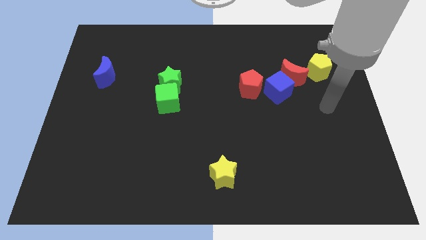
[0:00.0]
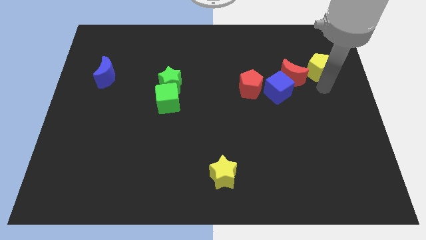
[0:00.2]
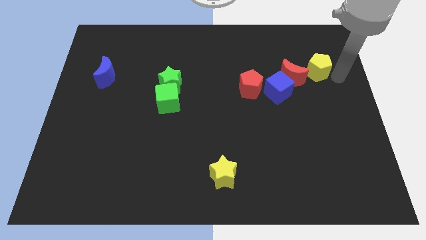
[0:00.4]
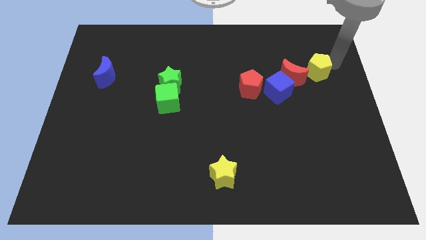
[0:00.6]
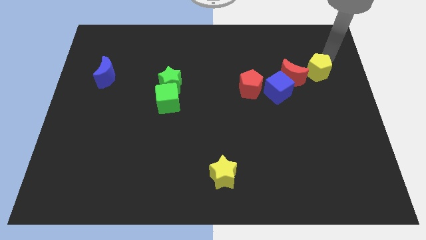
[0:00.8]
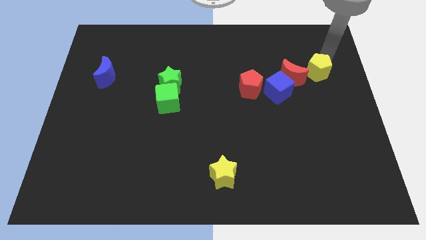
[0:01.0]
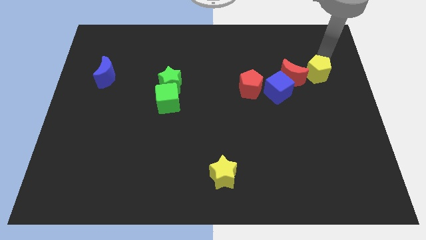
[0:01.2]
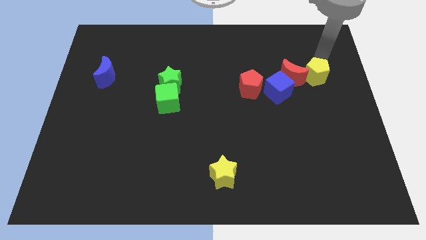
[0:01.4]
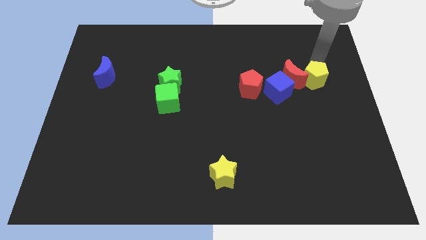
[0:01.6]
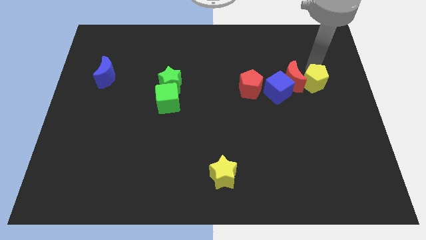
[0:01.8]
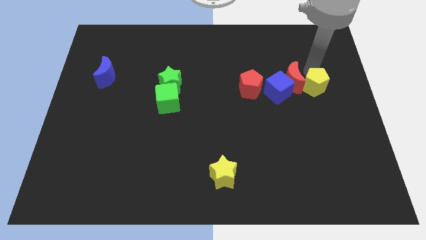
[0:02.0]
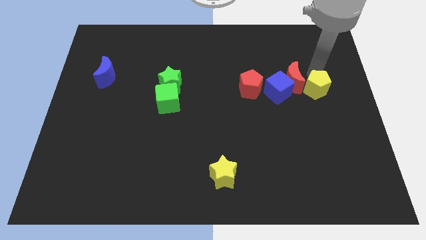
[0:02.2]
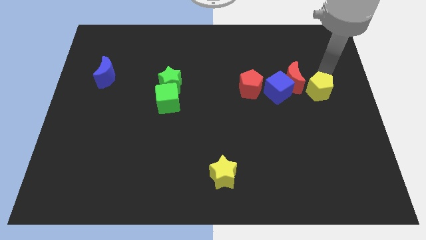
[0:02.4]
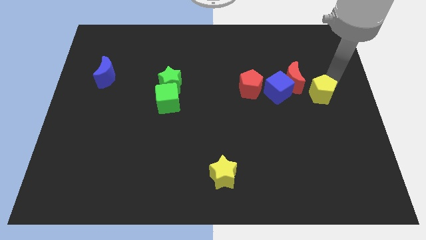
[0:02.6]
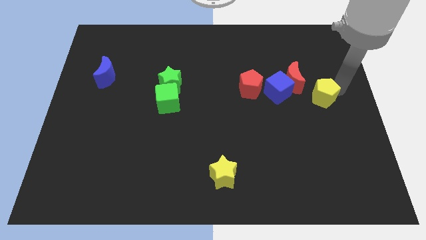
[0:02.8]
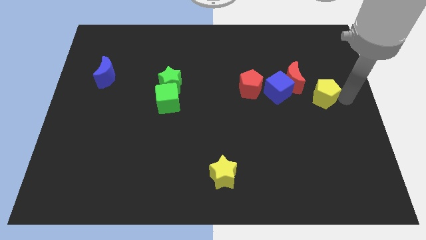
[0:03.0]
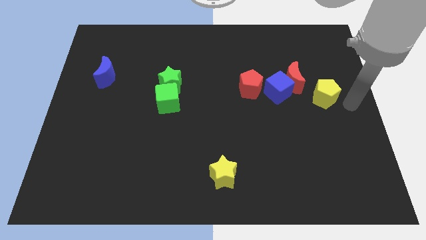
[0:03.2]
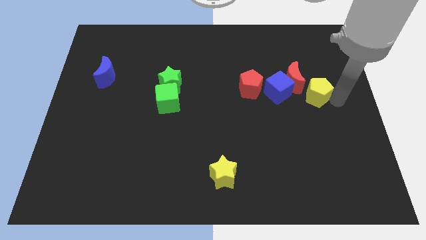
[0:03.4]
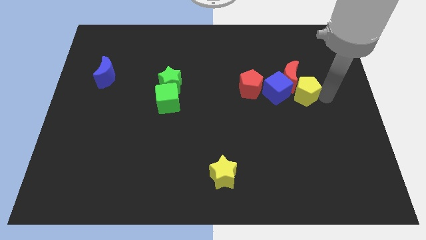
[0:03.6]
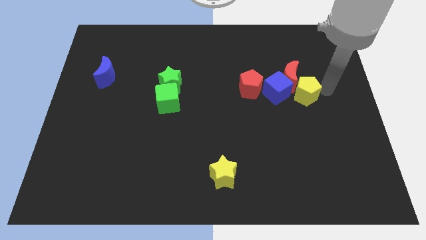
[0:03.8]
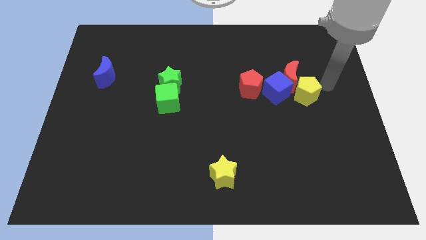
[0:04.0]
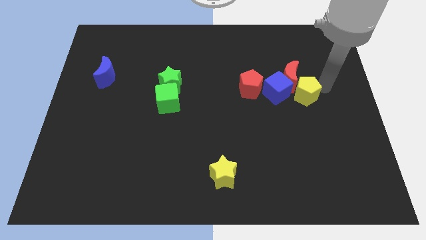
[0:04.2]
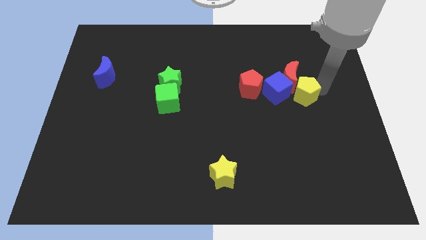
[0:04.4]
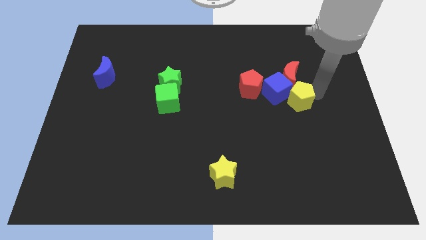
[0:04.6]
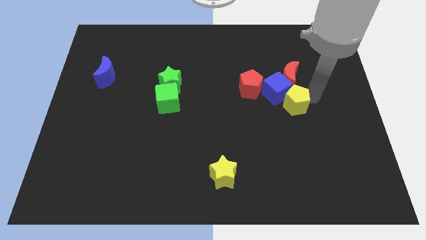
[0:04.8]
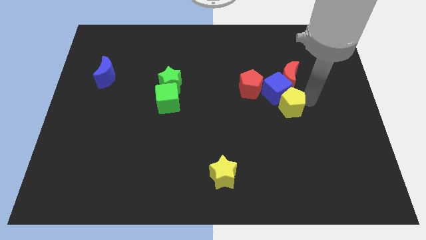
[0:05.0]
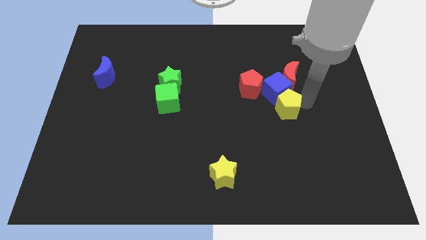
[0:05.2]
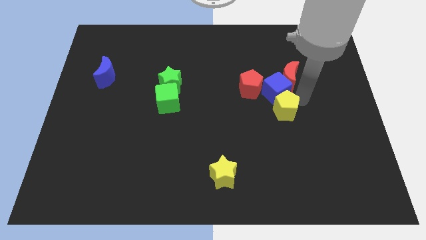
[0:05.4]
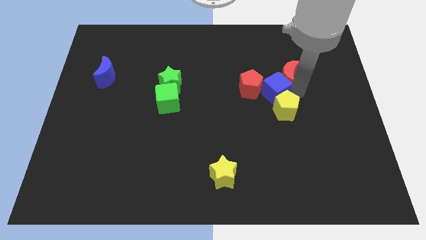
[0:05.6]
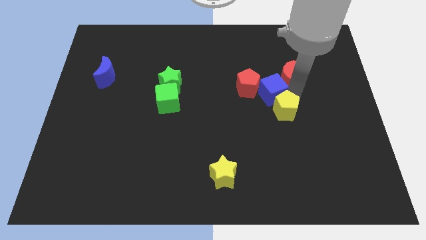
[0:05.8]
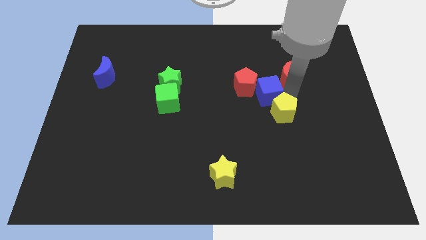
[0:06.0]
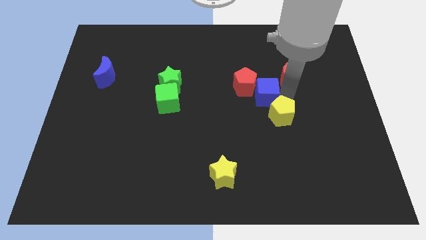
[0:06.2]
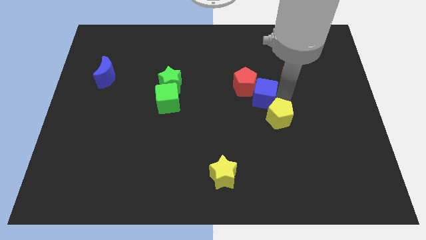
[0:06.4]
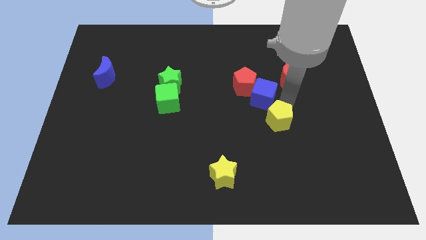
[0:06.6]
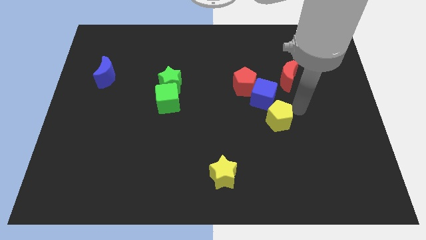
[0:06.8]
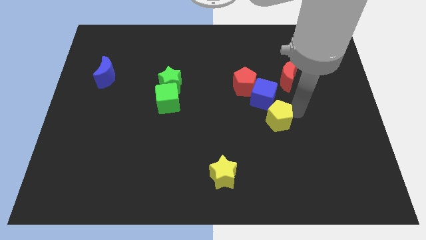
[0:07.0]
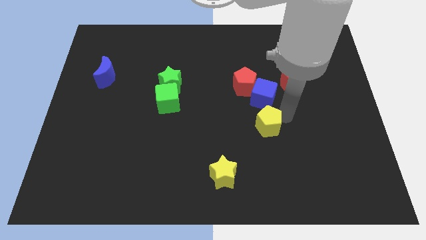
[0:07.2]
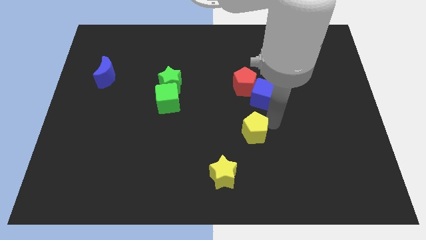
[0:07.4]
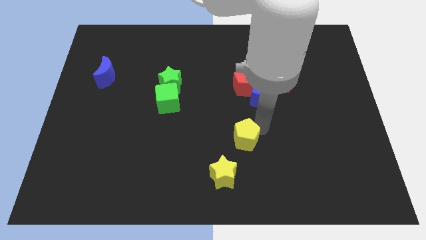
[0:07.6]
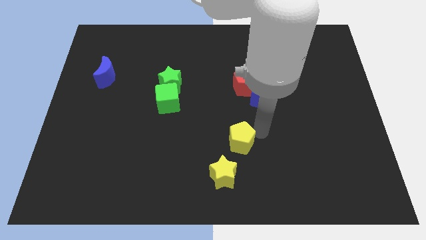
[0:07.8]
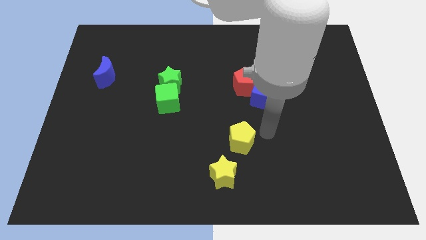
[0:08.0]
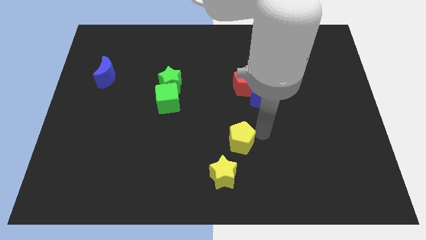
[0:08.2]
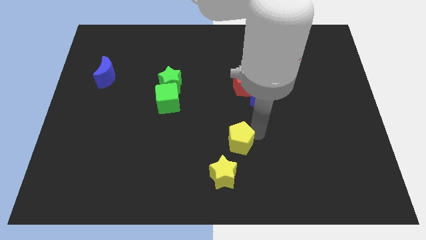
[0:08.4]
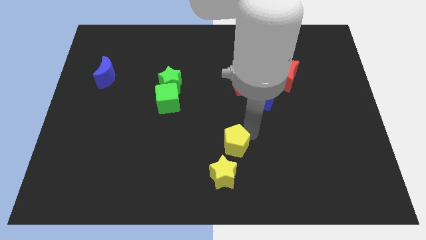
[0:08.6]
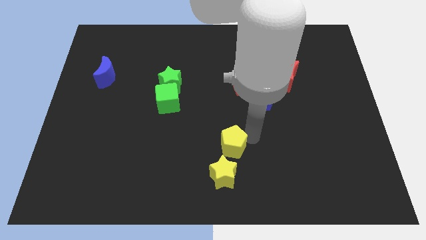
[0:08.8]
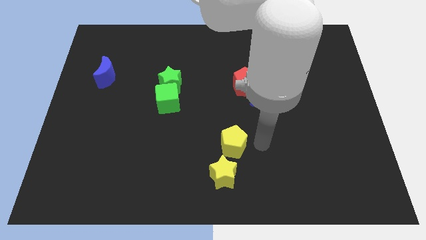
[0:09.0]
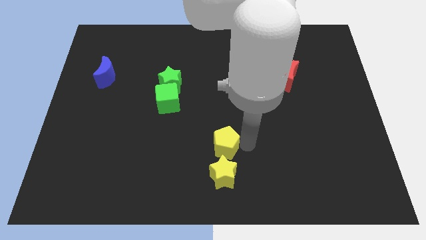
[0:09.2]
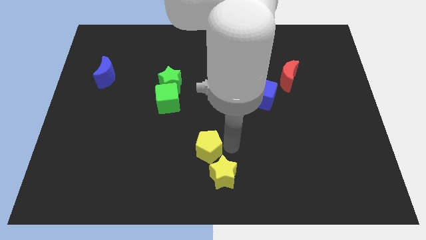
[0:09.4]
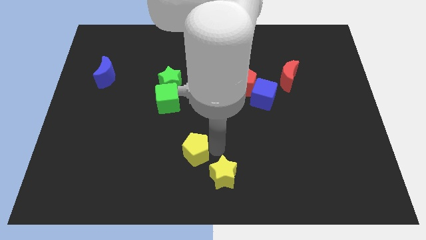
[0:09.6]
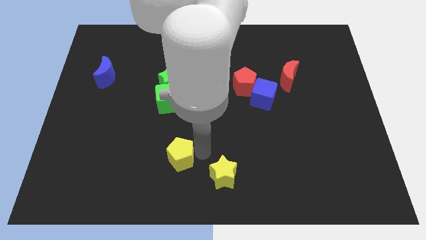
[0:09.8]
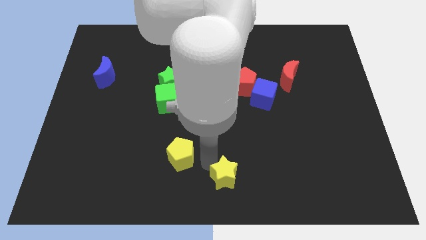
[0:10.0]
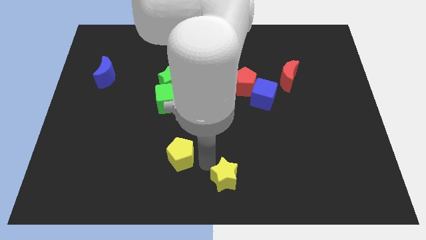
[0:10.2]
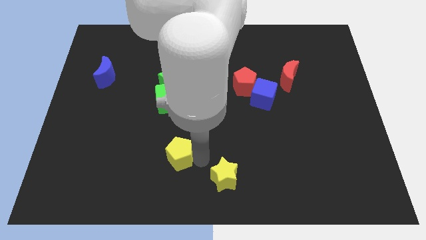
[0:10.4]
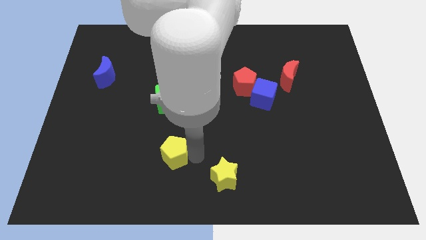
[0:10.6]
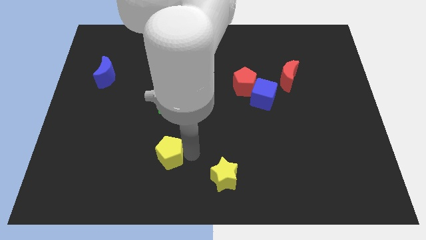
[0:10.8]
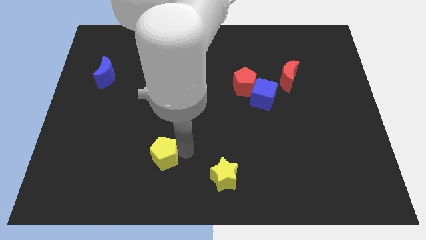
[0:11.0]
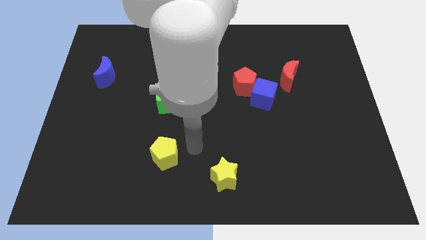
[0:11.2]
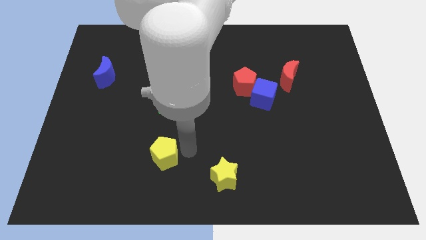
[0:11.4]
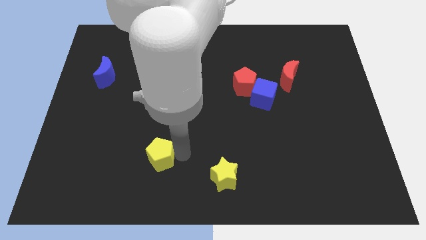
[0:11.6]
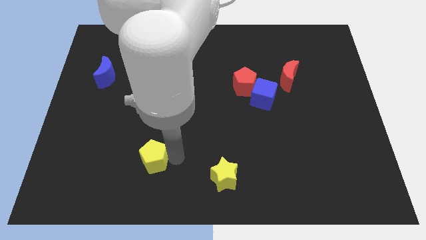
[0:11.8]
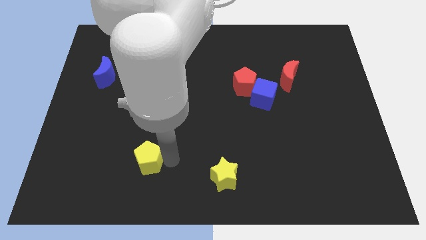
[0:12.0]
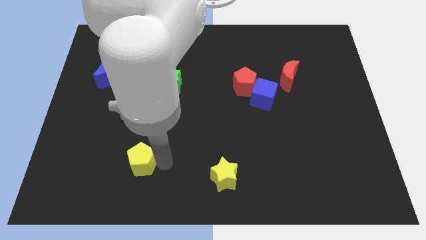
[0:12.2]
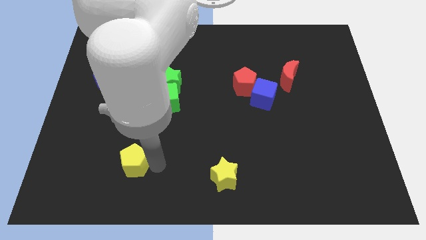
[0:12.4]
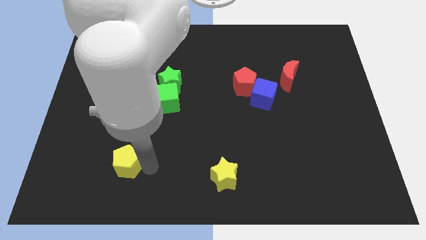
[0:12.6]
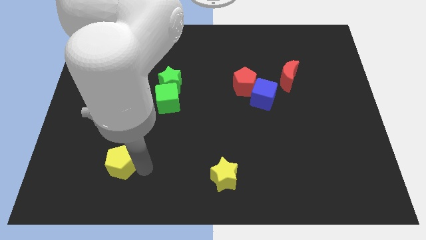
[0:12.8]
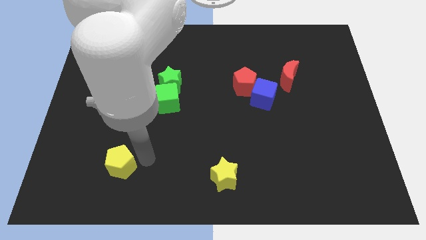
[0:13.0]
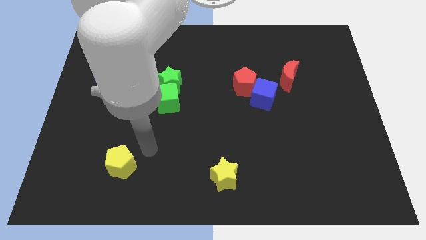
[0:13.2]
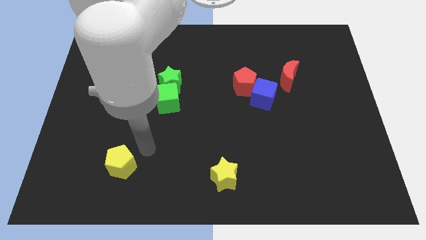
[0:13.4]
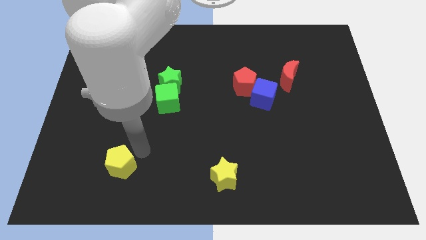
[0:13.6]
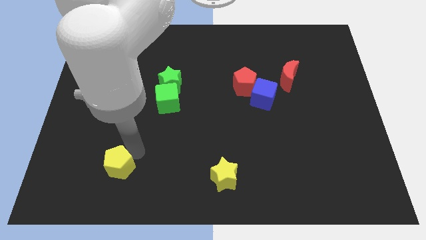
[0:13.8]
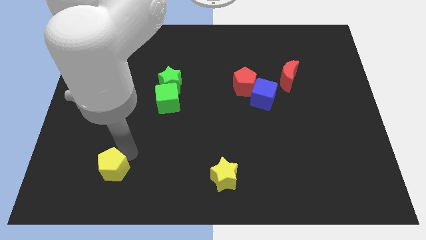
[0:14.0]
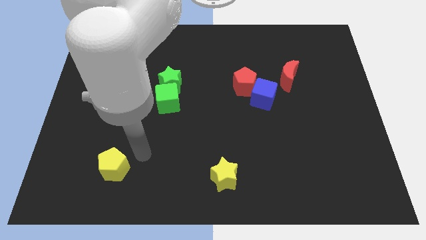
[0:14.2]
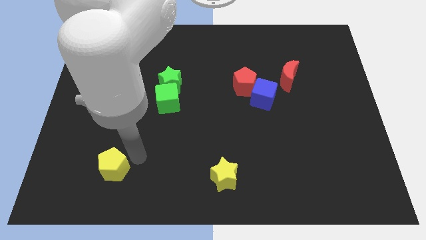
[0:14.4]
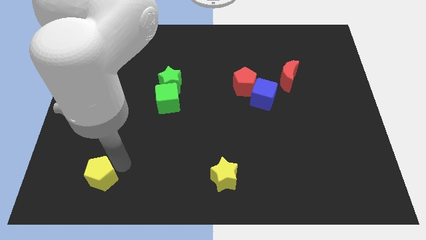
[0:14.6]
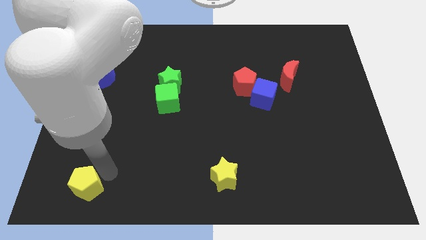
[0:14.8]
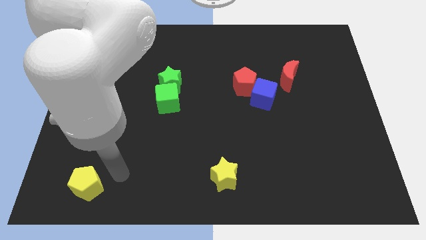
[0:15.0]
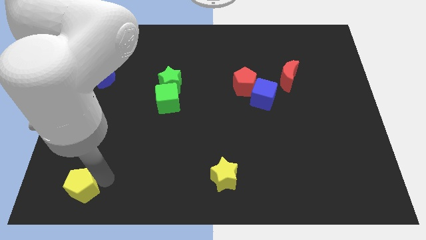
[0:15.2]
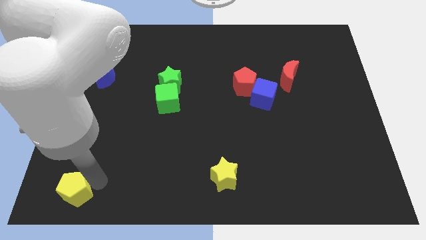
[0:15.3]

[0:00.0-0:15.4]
move the yellow pentagon to the bottom left
